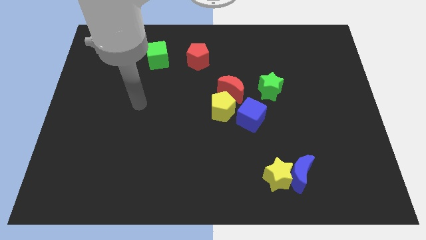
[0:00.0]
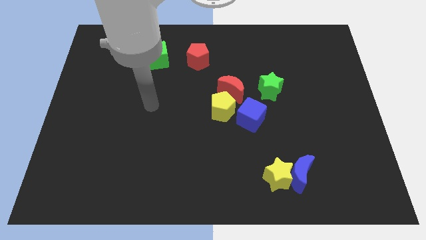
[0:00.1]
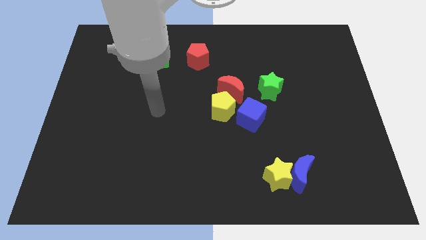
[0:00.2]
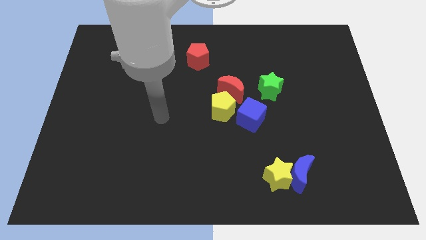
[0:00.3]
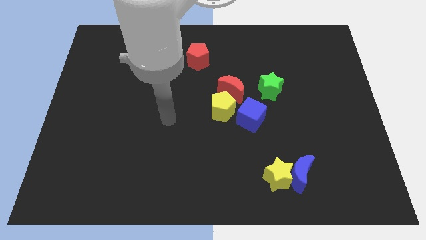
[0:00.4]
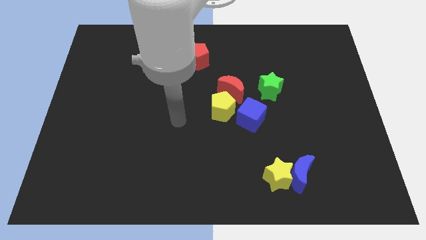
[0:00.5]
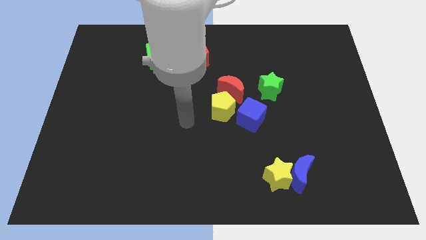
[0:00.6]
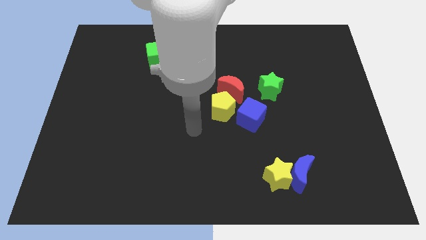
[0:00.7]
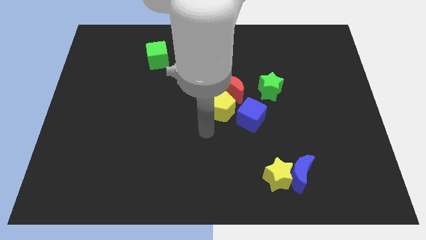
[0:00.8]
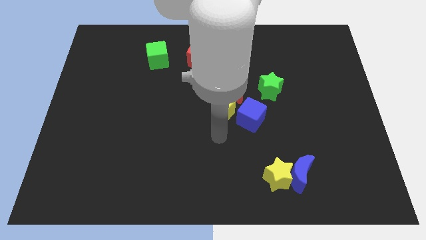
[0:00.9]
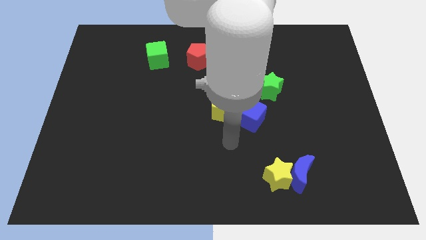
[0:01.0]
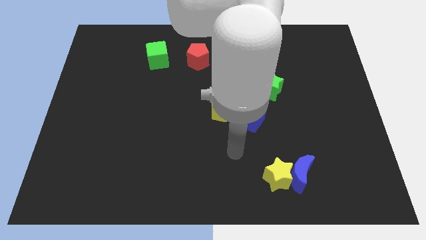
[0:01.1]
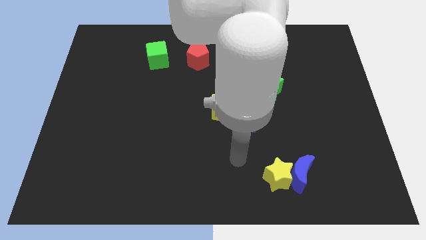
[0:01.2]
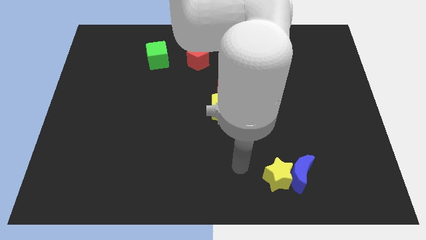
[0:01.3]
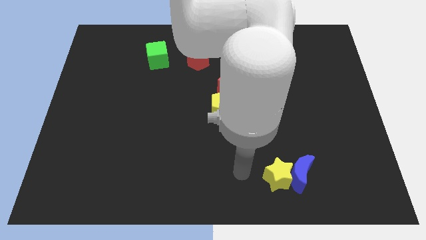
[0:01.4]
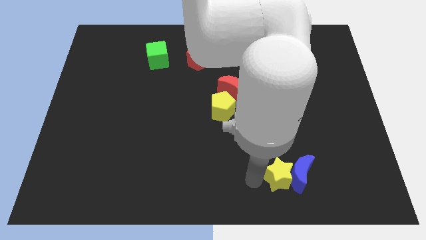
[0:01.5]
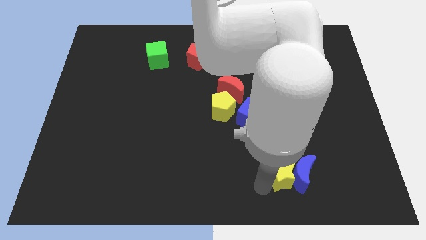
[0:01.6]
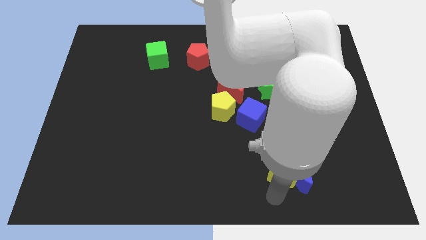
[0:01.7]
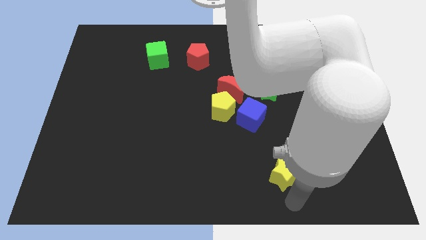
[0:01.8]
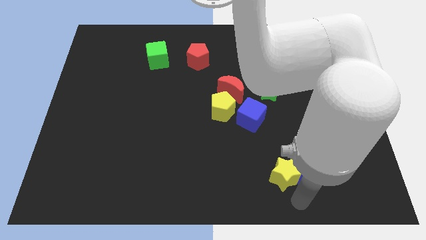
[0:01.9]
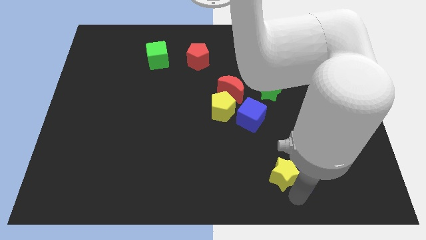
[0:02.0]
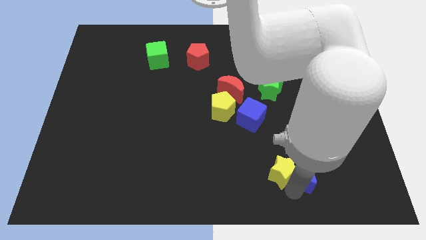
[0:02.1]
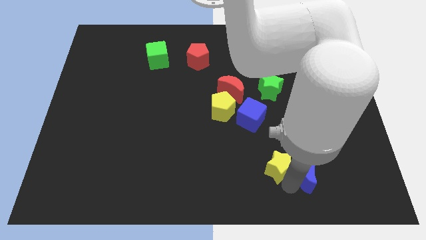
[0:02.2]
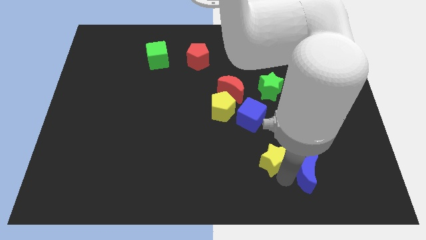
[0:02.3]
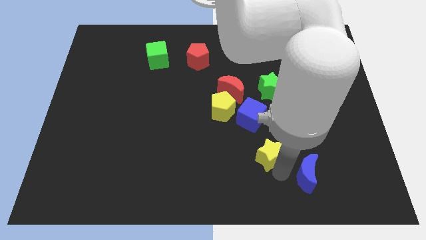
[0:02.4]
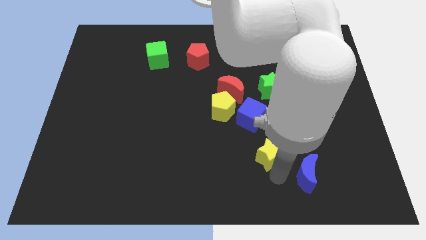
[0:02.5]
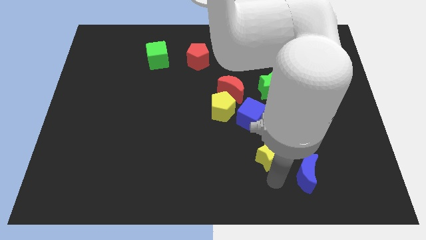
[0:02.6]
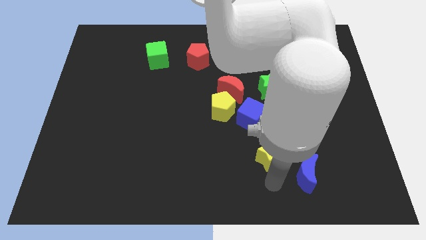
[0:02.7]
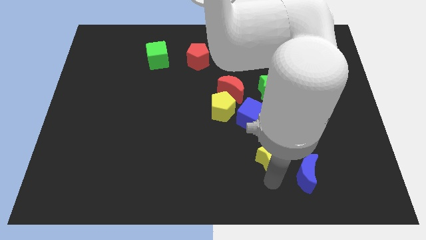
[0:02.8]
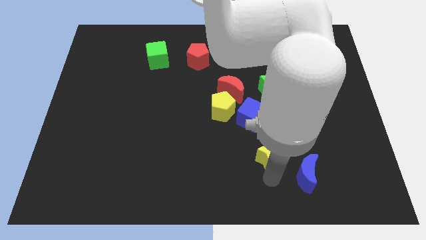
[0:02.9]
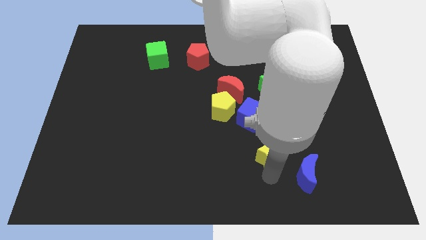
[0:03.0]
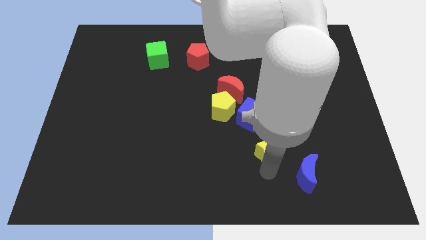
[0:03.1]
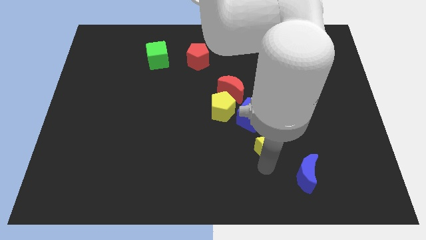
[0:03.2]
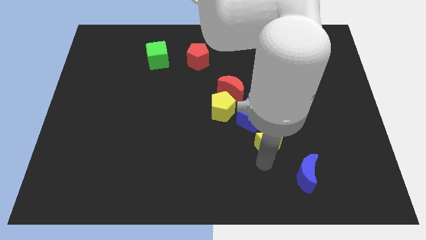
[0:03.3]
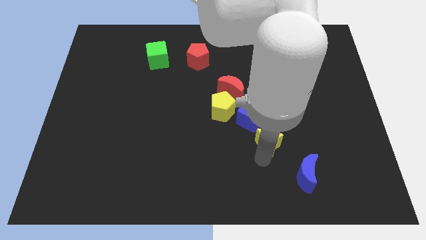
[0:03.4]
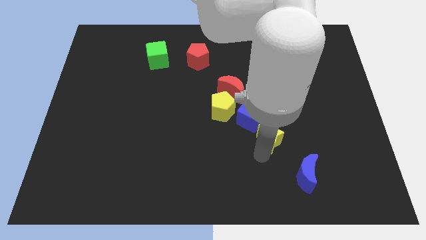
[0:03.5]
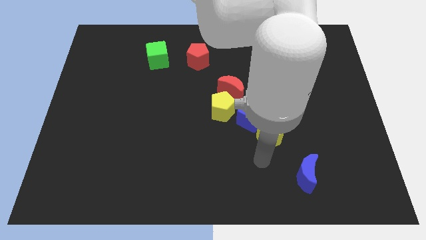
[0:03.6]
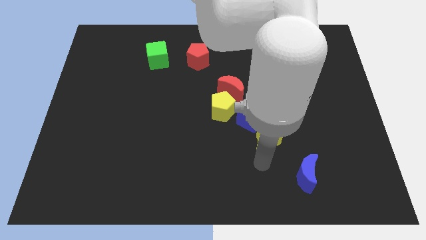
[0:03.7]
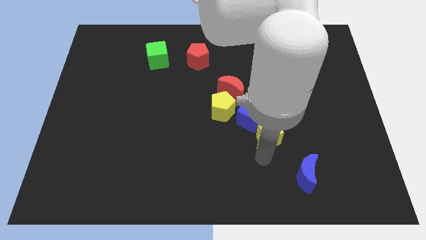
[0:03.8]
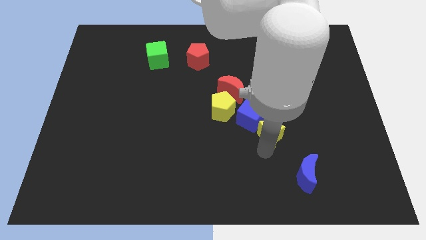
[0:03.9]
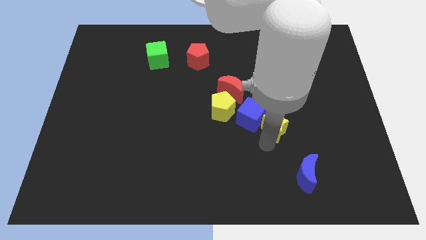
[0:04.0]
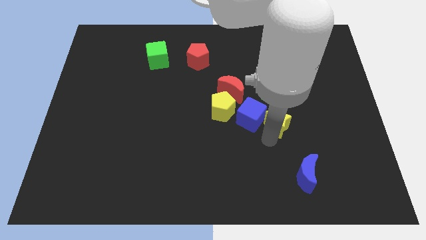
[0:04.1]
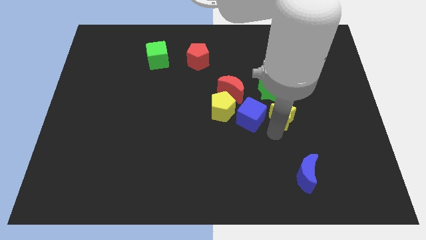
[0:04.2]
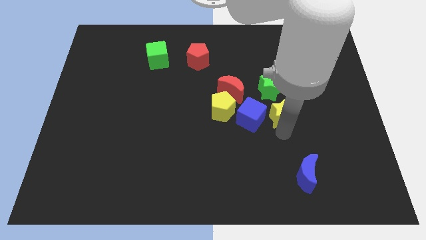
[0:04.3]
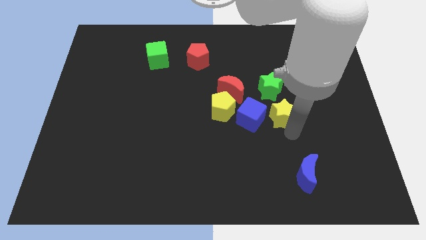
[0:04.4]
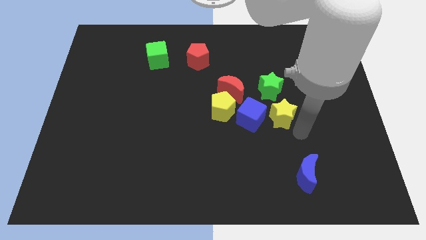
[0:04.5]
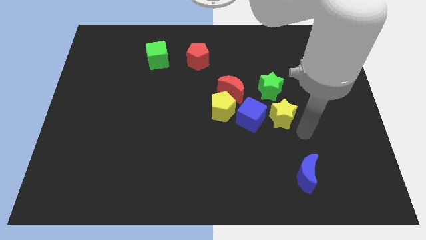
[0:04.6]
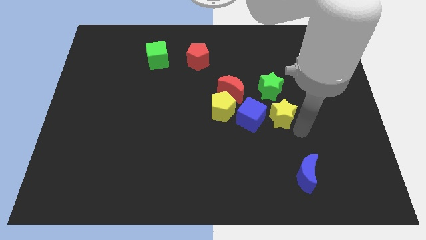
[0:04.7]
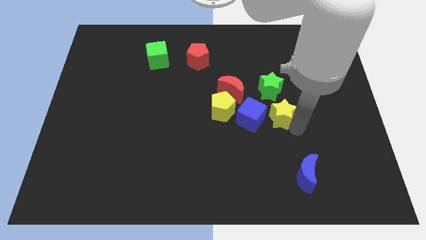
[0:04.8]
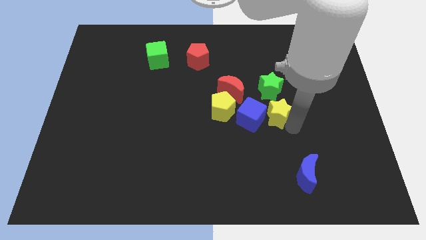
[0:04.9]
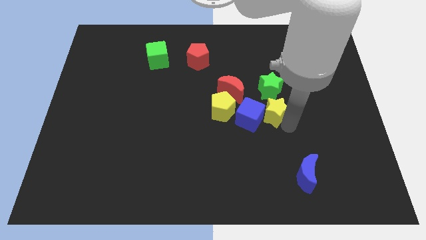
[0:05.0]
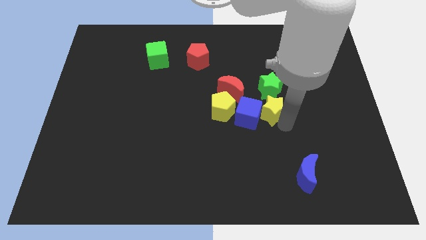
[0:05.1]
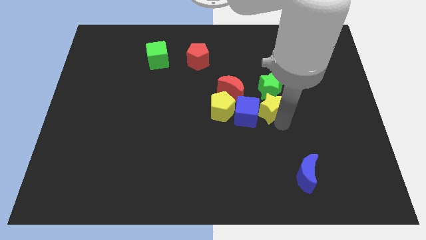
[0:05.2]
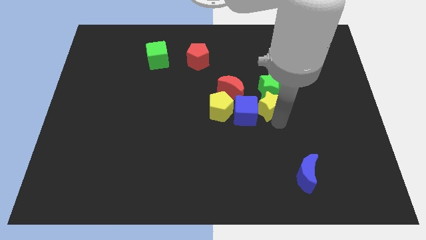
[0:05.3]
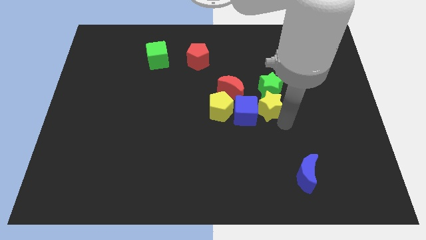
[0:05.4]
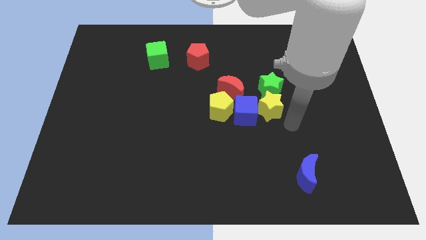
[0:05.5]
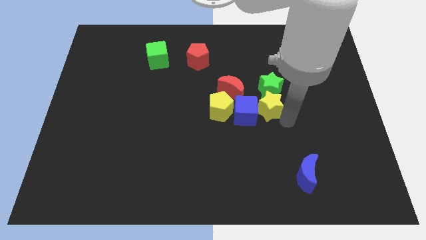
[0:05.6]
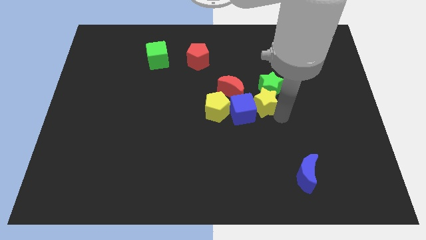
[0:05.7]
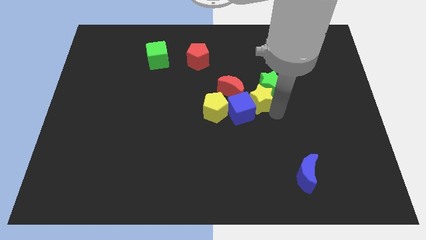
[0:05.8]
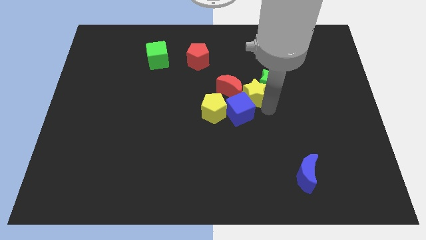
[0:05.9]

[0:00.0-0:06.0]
move the yellow star to the top side of the blue cube

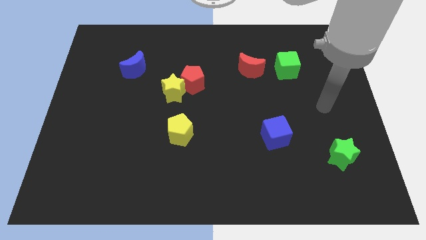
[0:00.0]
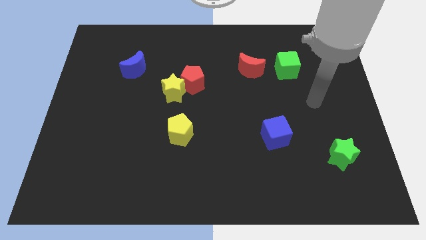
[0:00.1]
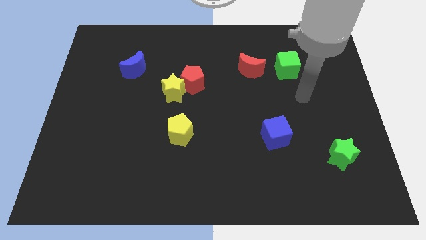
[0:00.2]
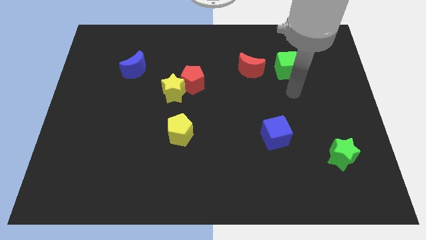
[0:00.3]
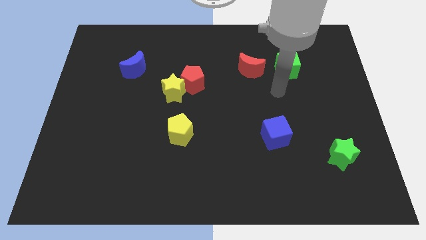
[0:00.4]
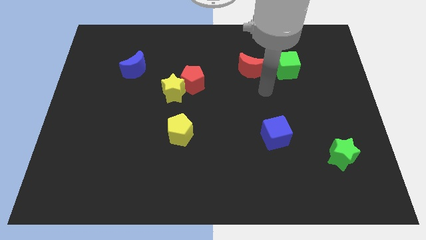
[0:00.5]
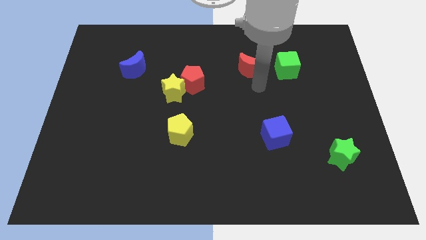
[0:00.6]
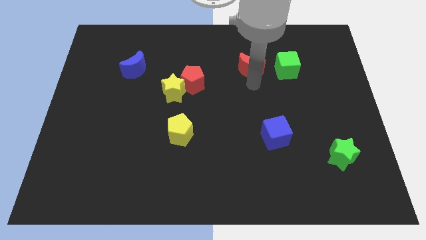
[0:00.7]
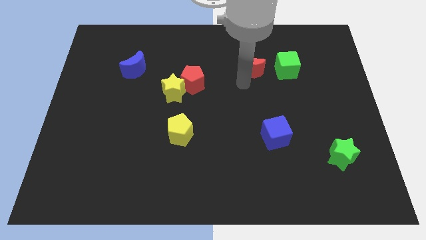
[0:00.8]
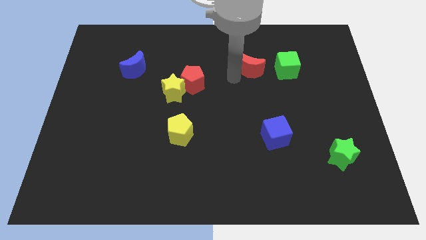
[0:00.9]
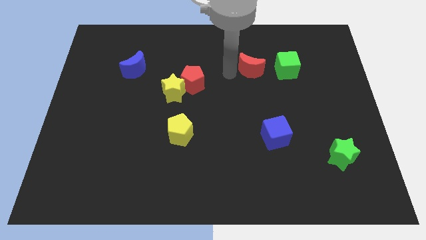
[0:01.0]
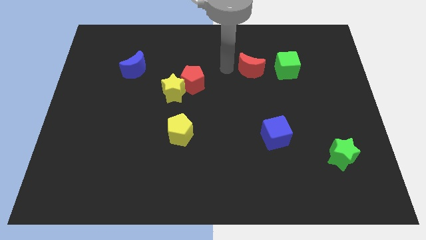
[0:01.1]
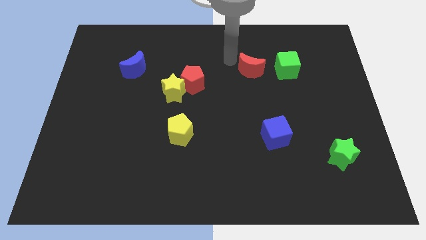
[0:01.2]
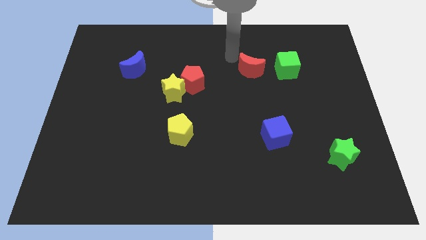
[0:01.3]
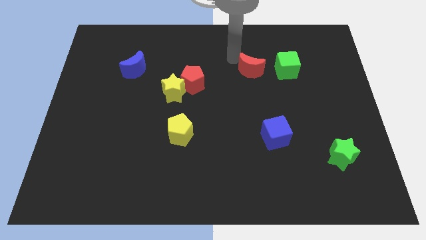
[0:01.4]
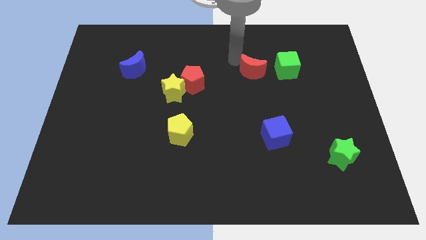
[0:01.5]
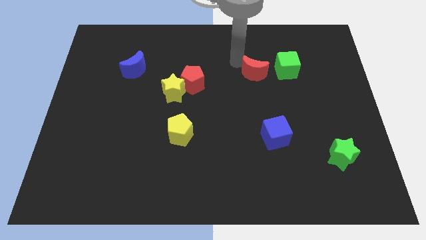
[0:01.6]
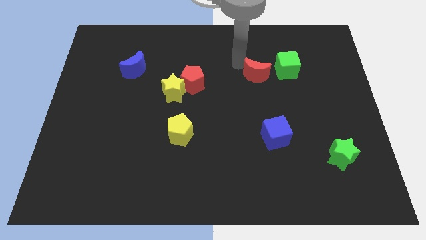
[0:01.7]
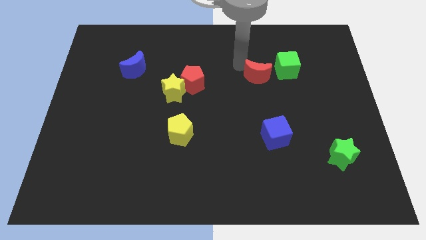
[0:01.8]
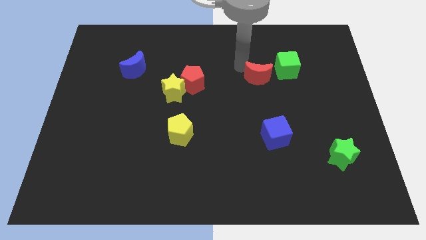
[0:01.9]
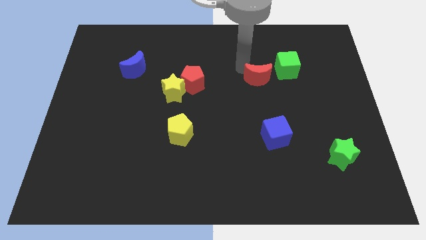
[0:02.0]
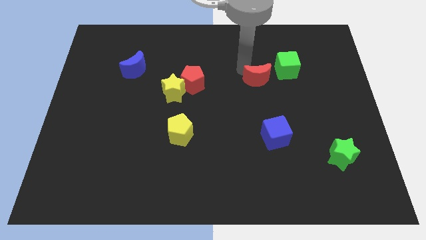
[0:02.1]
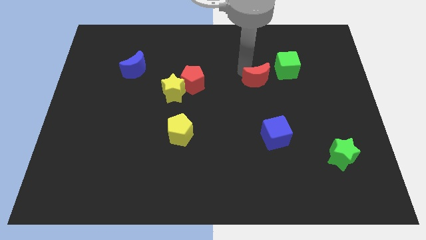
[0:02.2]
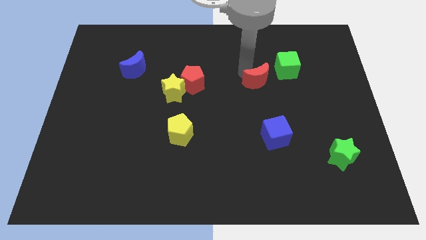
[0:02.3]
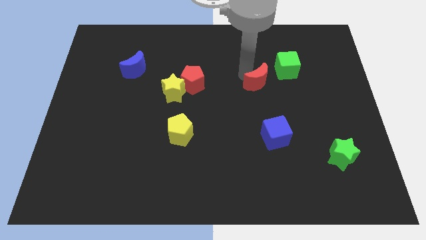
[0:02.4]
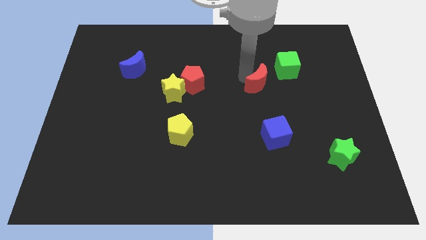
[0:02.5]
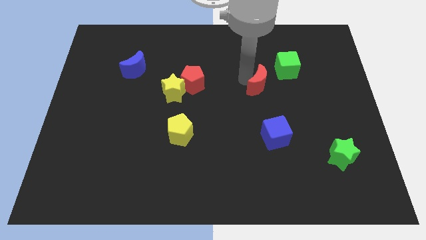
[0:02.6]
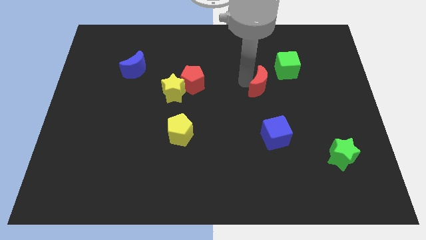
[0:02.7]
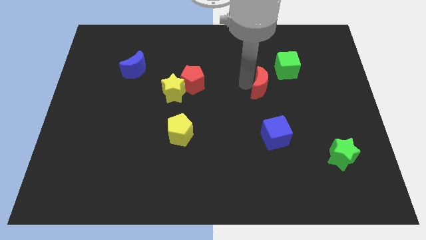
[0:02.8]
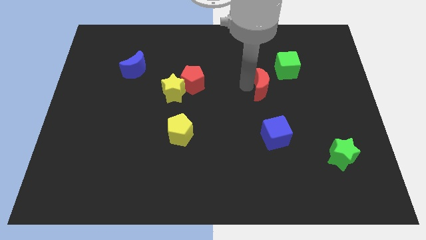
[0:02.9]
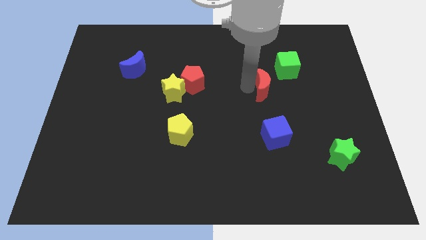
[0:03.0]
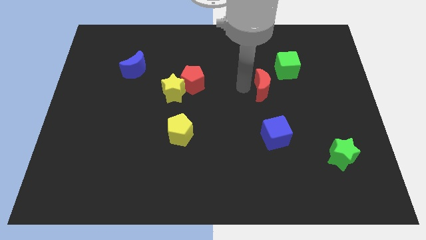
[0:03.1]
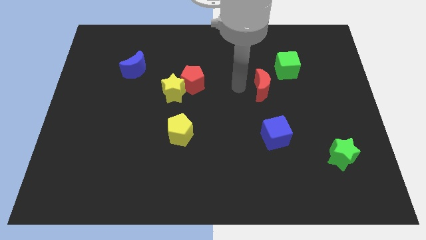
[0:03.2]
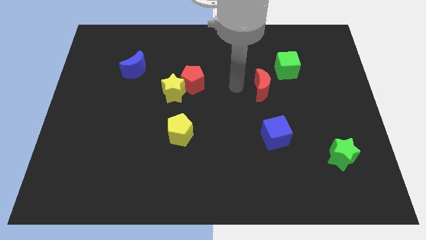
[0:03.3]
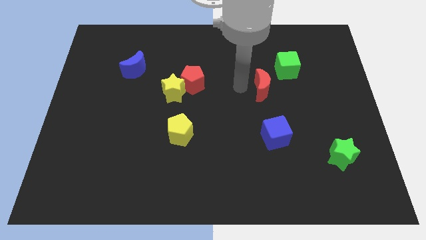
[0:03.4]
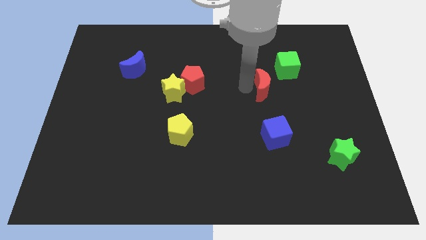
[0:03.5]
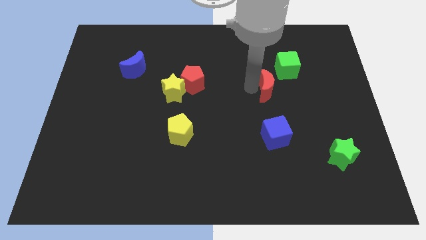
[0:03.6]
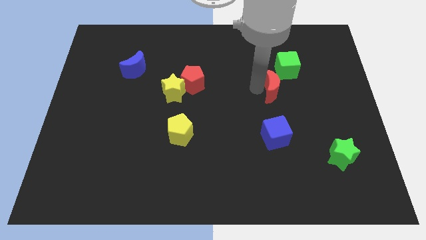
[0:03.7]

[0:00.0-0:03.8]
slide the red moon to the bottom of the green cube
